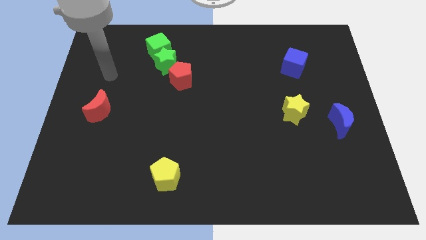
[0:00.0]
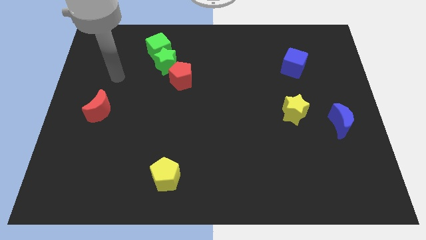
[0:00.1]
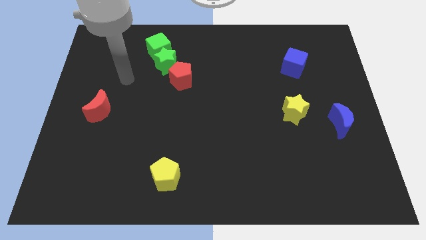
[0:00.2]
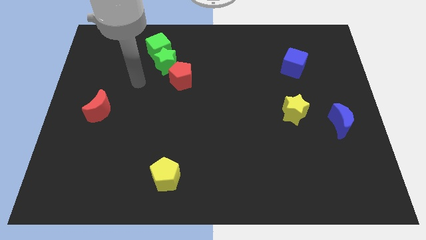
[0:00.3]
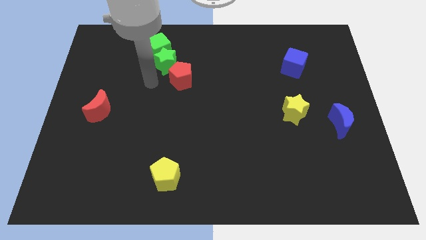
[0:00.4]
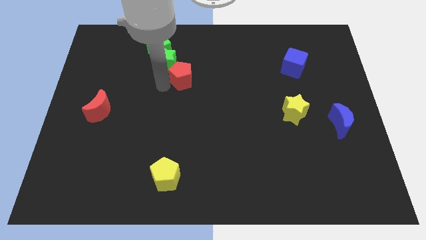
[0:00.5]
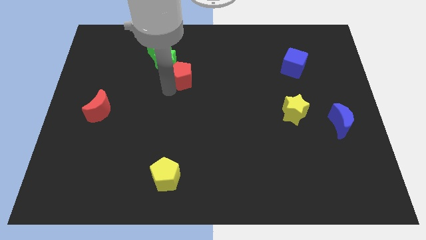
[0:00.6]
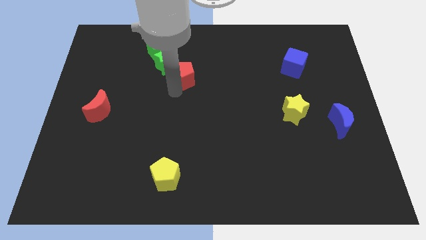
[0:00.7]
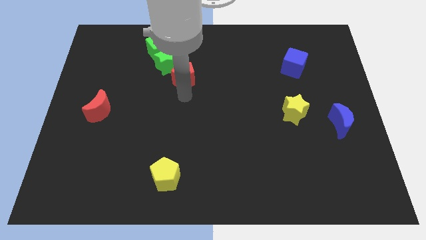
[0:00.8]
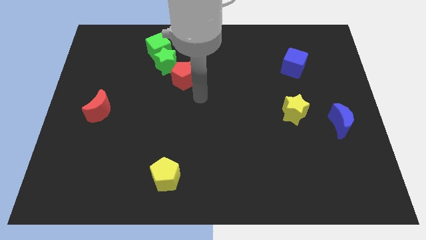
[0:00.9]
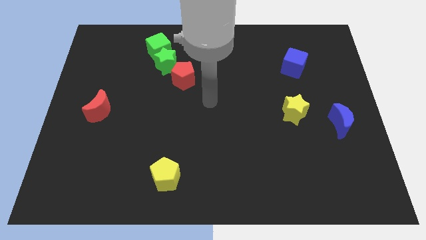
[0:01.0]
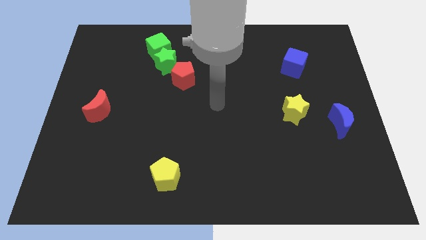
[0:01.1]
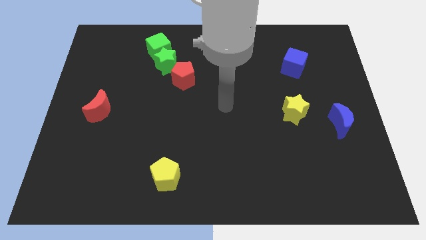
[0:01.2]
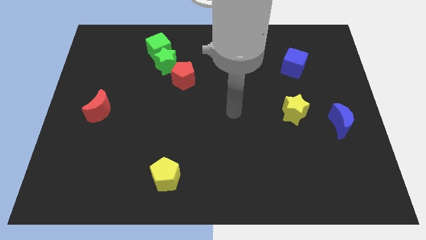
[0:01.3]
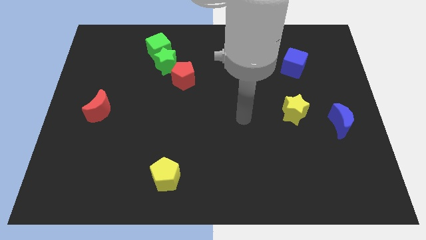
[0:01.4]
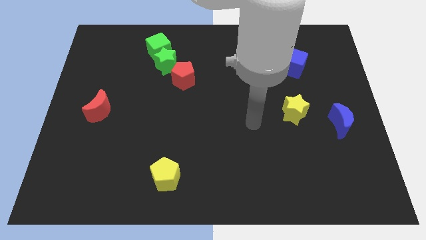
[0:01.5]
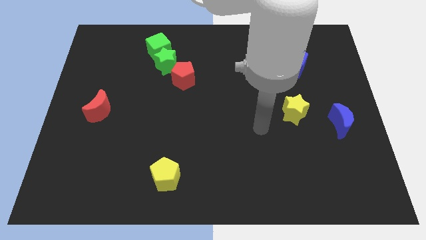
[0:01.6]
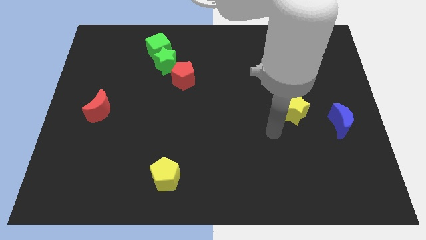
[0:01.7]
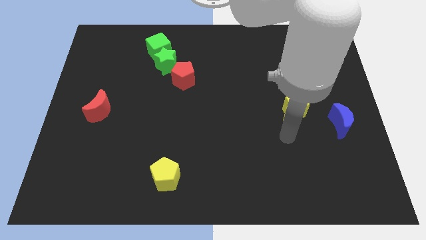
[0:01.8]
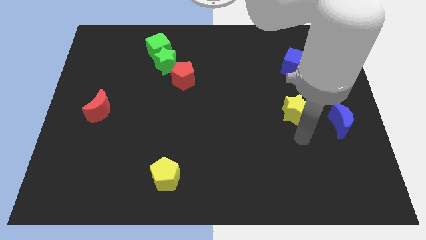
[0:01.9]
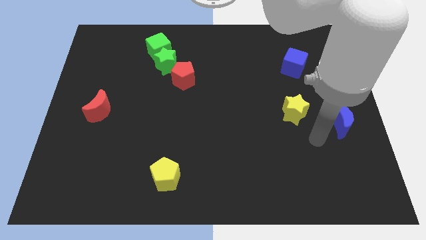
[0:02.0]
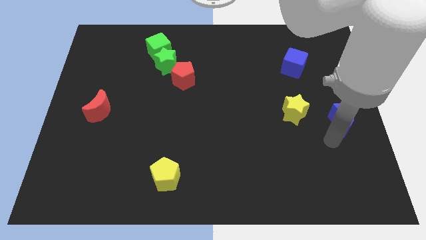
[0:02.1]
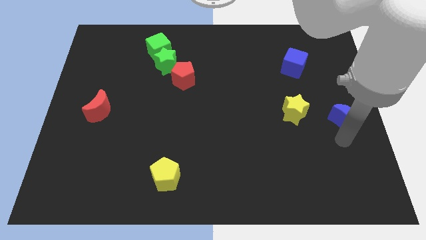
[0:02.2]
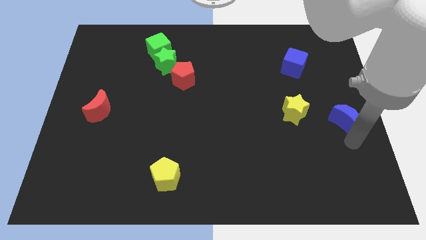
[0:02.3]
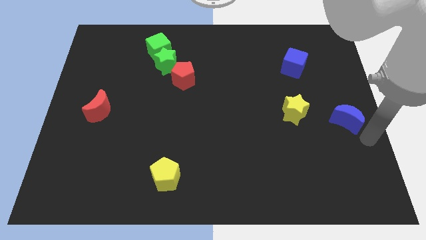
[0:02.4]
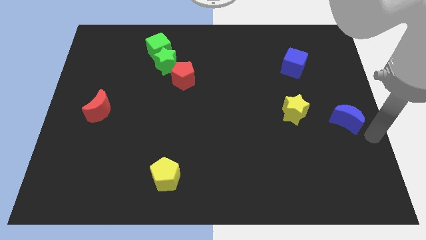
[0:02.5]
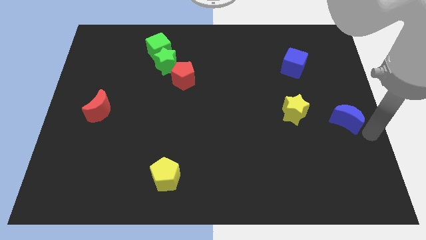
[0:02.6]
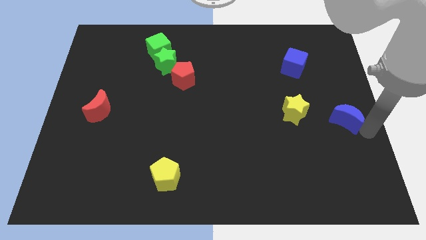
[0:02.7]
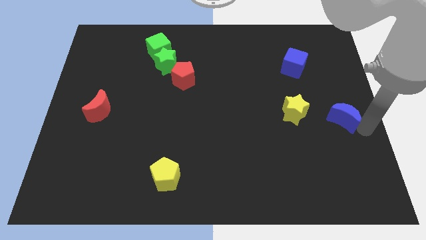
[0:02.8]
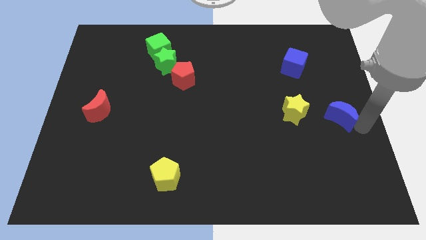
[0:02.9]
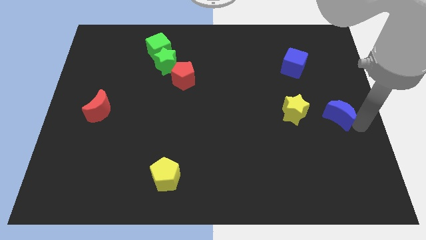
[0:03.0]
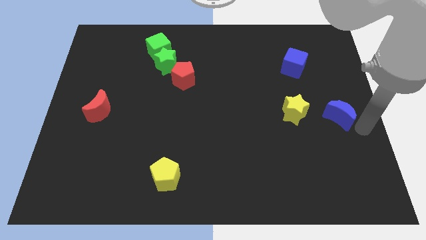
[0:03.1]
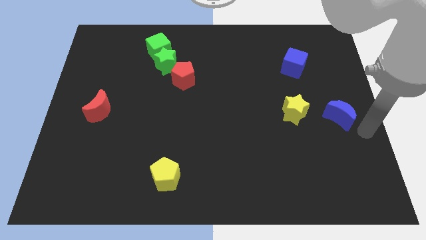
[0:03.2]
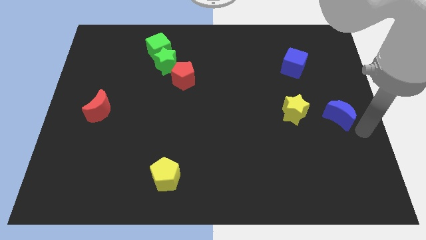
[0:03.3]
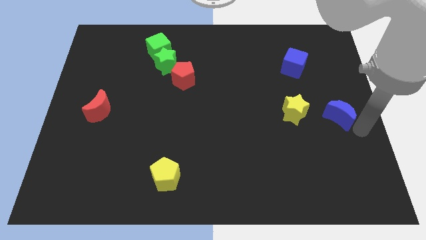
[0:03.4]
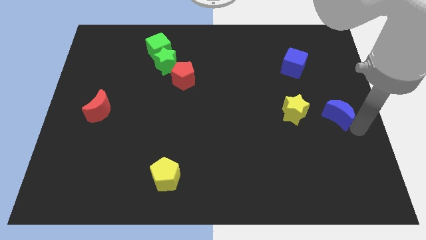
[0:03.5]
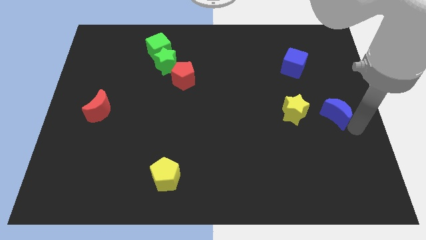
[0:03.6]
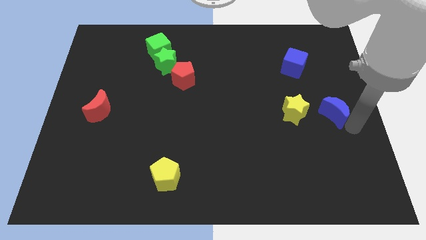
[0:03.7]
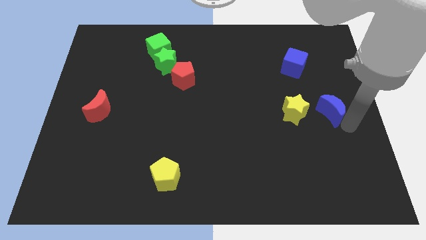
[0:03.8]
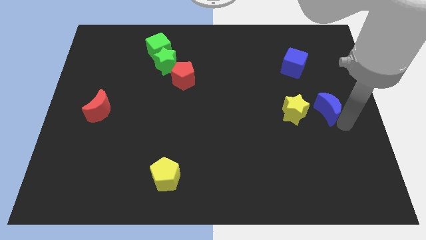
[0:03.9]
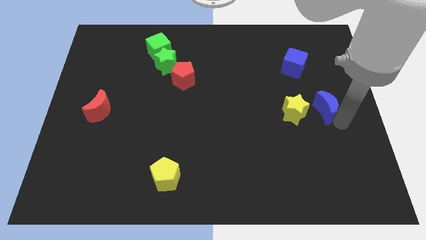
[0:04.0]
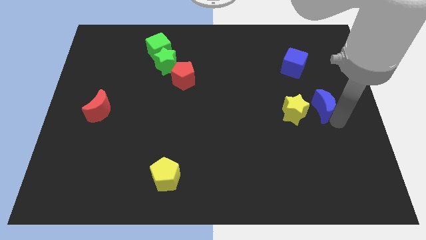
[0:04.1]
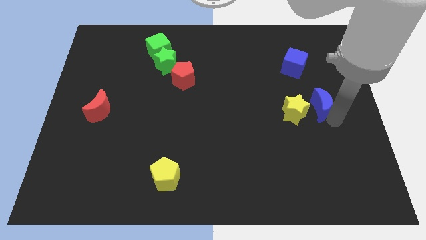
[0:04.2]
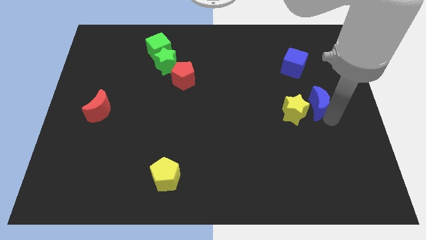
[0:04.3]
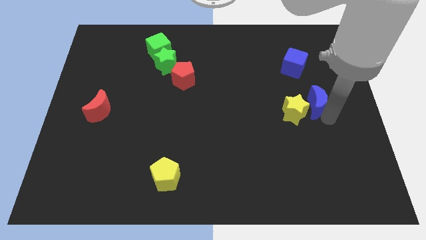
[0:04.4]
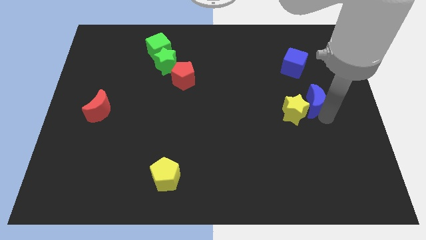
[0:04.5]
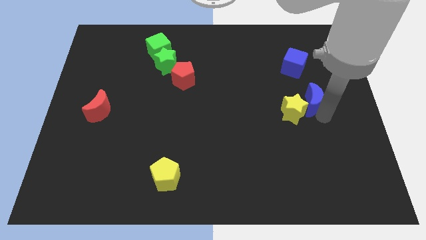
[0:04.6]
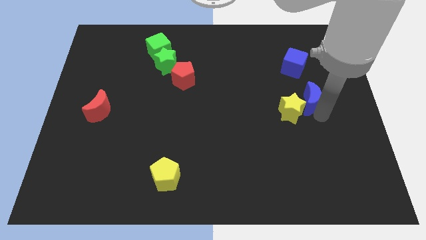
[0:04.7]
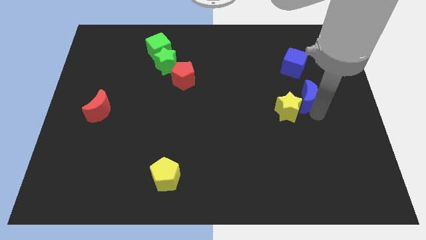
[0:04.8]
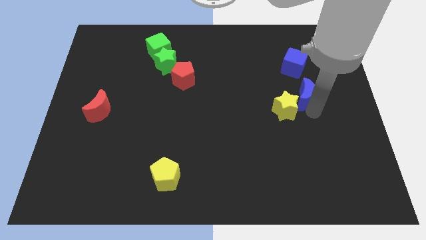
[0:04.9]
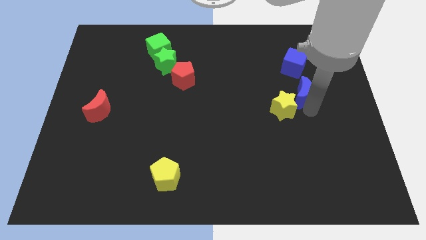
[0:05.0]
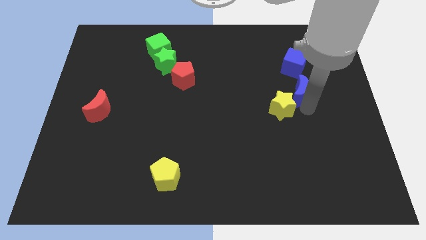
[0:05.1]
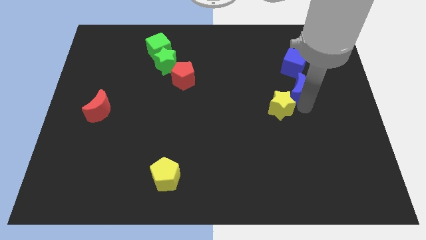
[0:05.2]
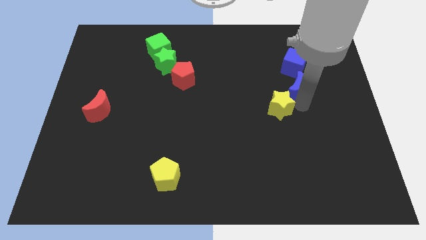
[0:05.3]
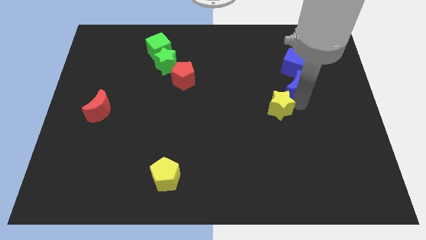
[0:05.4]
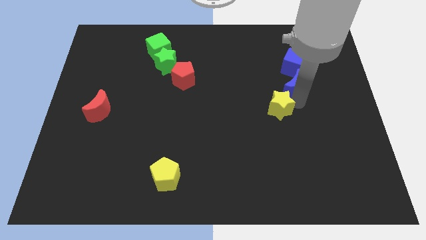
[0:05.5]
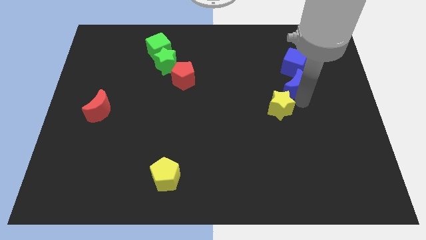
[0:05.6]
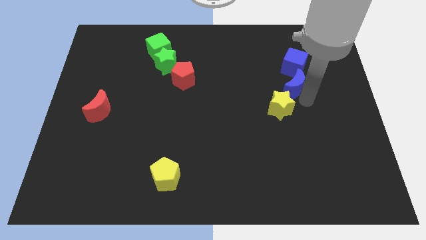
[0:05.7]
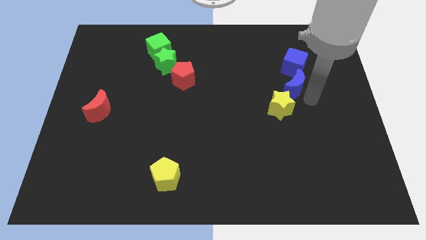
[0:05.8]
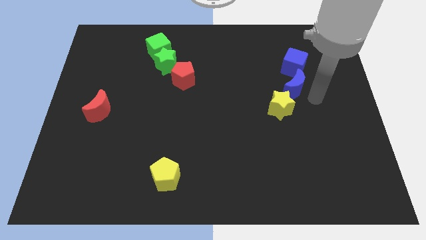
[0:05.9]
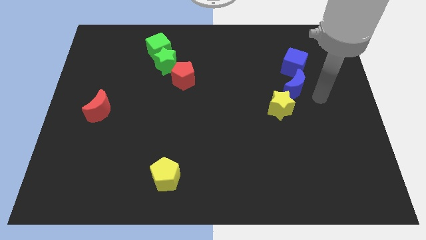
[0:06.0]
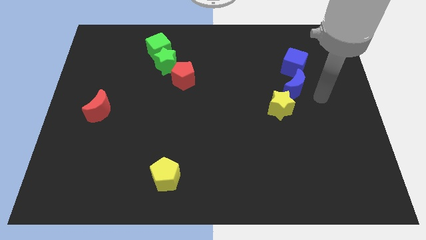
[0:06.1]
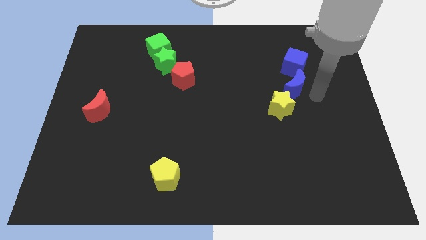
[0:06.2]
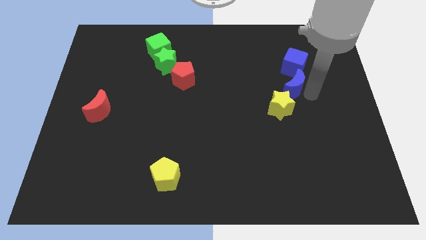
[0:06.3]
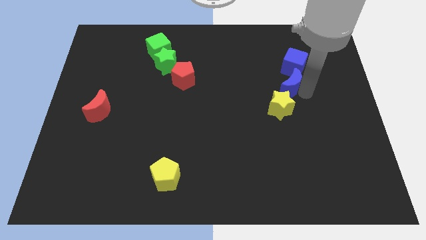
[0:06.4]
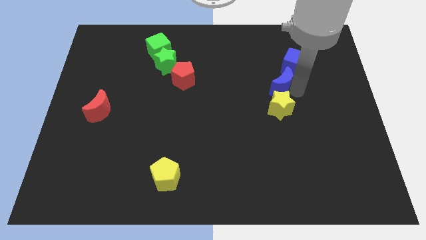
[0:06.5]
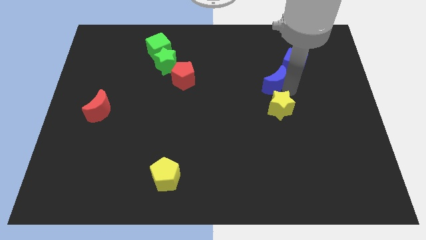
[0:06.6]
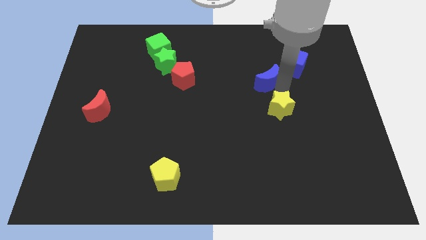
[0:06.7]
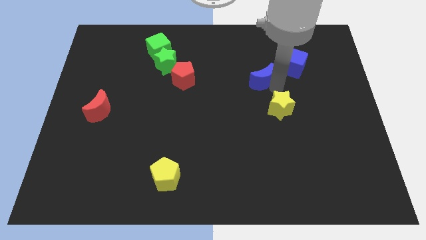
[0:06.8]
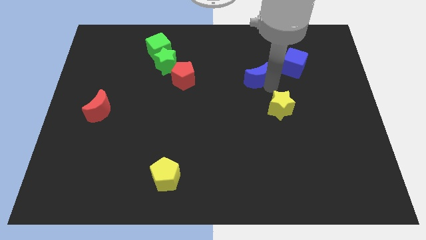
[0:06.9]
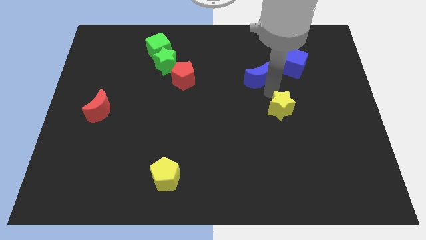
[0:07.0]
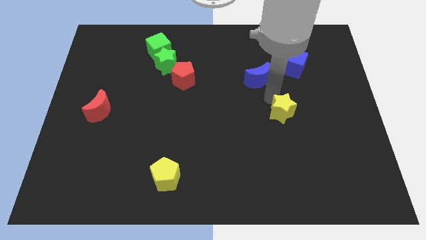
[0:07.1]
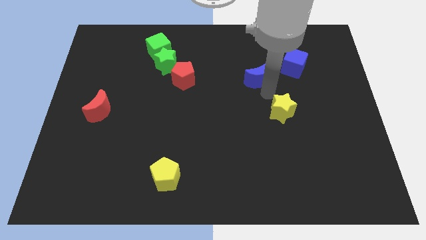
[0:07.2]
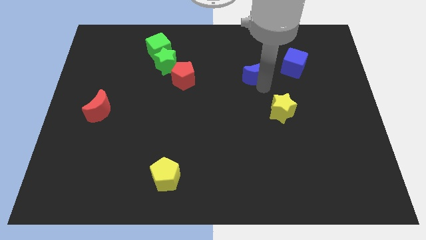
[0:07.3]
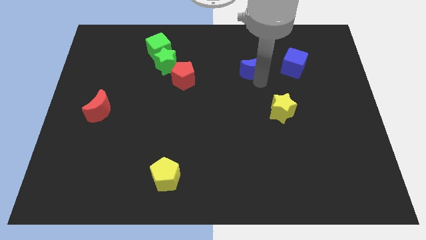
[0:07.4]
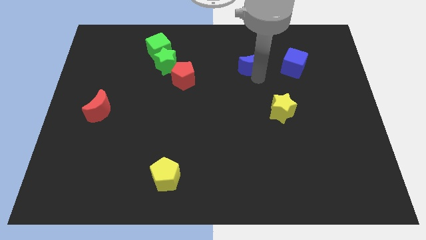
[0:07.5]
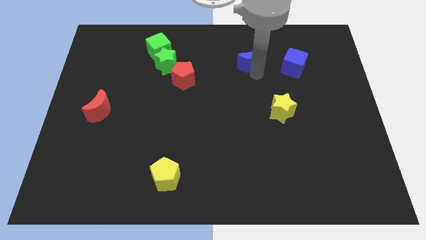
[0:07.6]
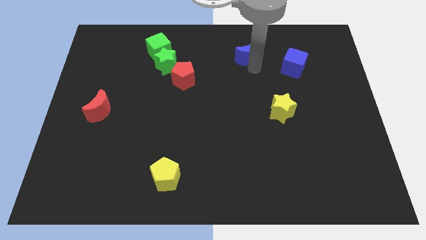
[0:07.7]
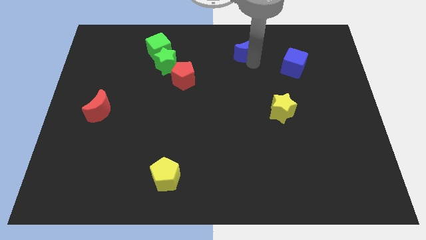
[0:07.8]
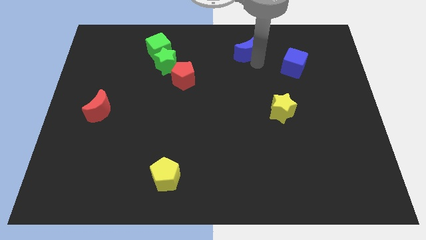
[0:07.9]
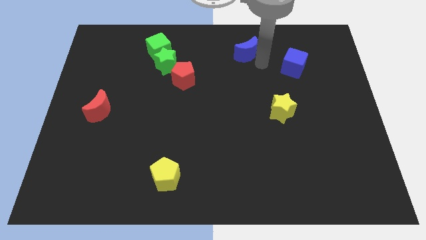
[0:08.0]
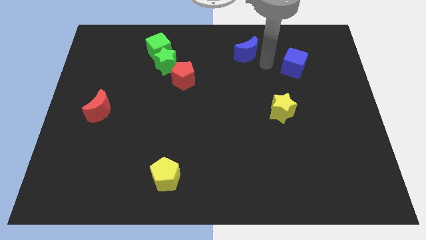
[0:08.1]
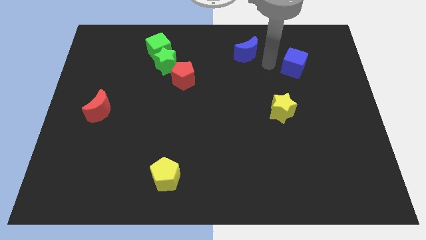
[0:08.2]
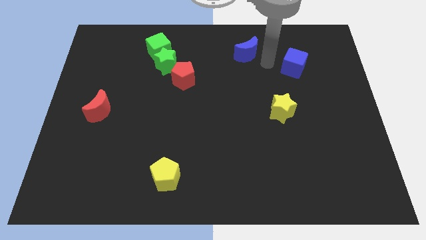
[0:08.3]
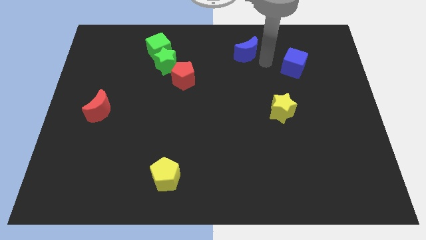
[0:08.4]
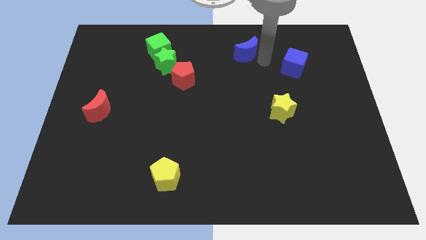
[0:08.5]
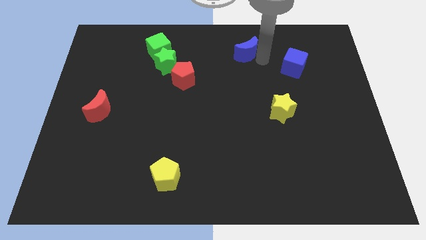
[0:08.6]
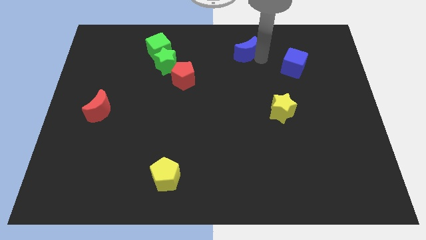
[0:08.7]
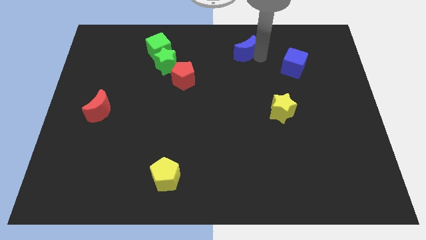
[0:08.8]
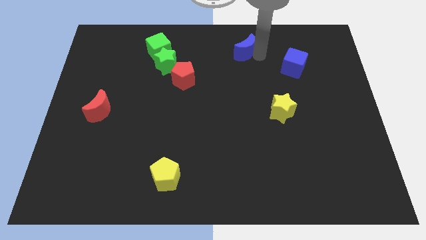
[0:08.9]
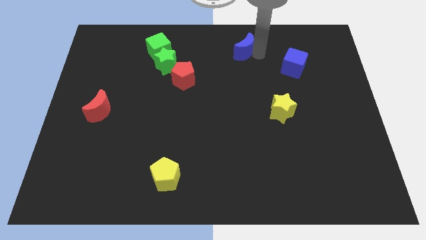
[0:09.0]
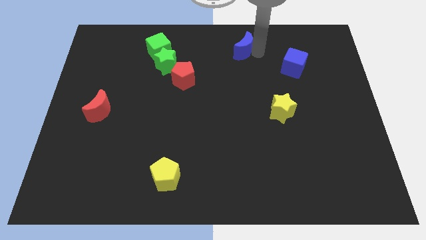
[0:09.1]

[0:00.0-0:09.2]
put the blue moon to the towards your base
